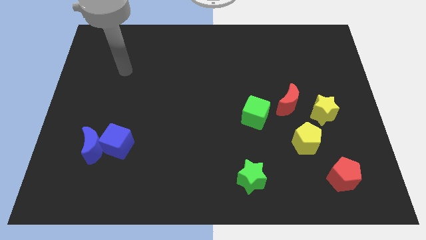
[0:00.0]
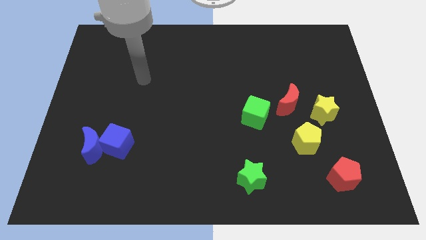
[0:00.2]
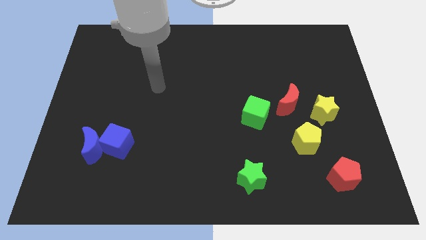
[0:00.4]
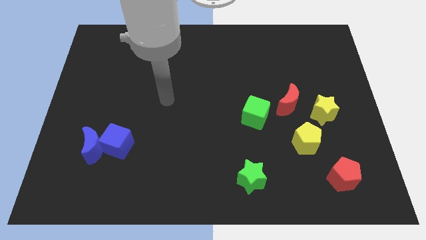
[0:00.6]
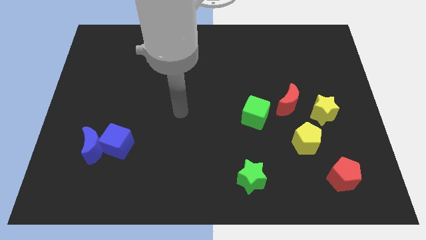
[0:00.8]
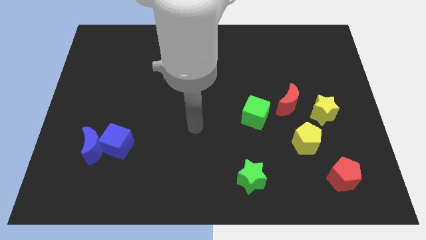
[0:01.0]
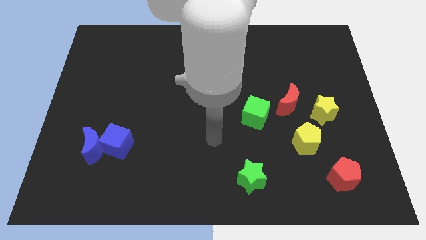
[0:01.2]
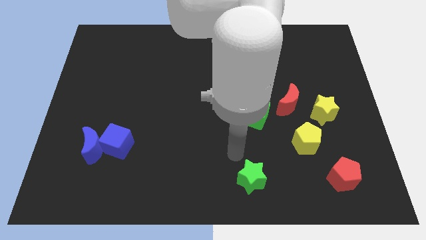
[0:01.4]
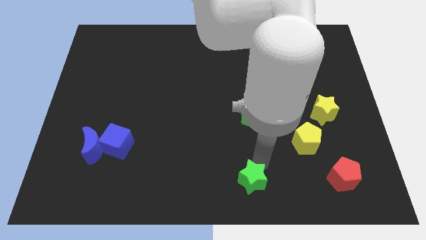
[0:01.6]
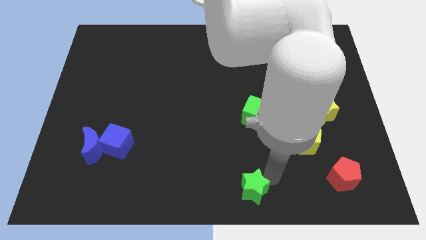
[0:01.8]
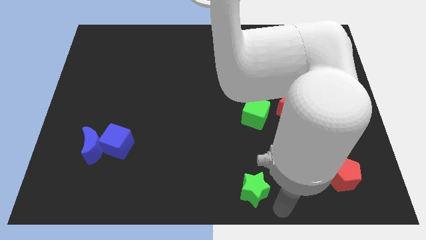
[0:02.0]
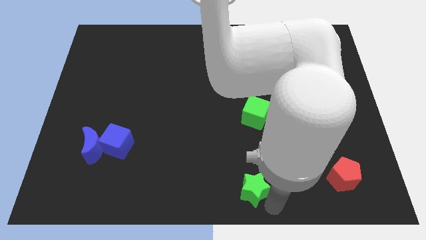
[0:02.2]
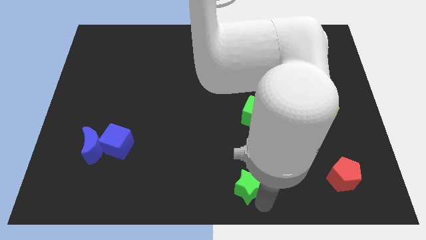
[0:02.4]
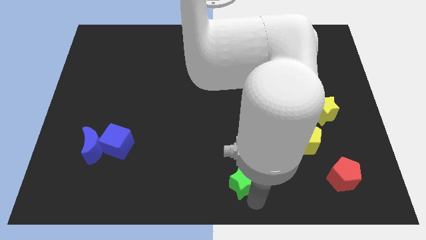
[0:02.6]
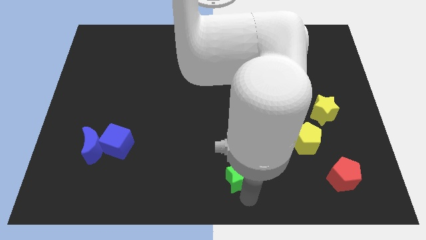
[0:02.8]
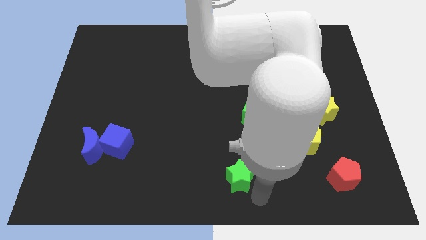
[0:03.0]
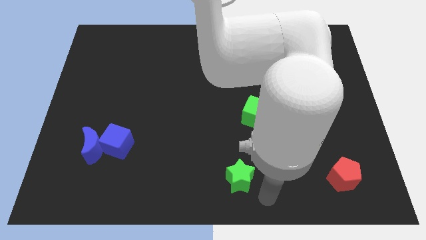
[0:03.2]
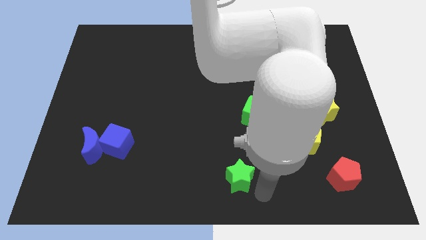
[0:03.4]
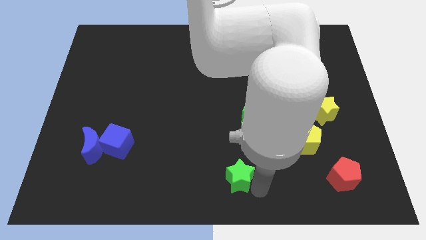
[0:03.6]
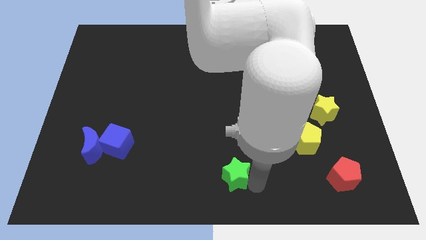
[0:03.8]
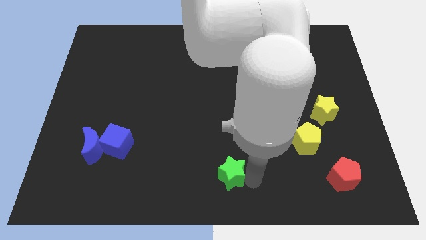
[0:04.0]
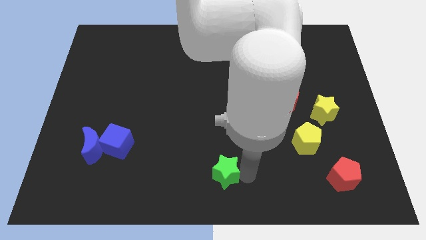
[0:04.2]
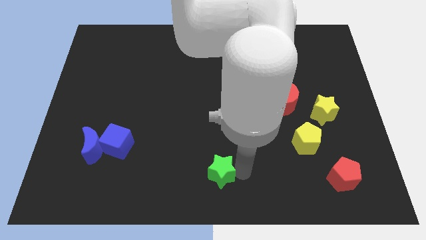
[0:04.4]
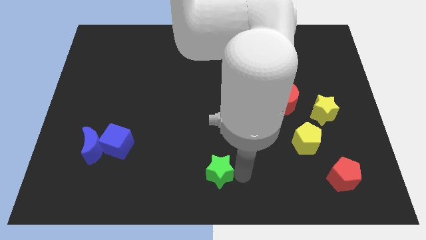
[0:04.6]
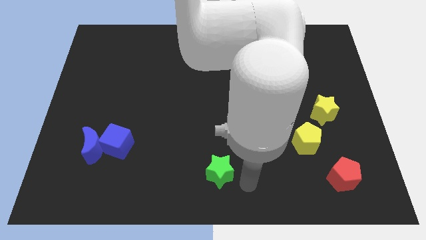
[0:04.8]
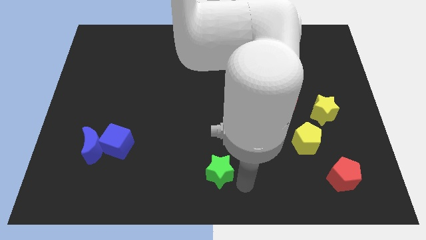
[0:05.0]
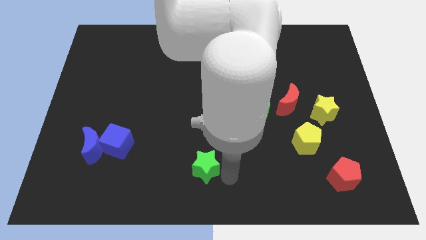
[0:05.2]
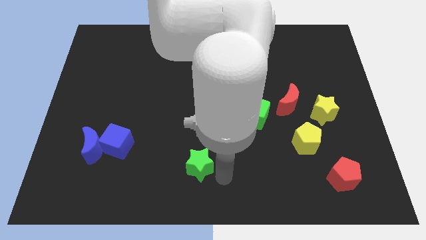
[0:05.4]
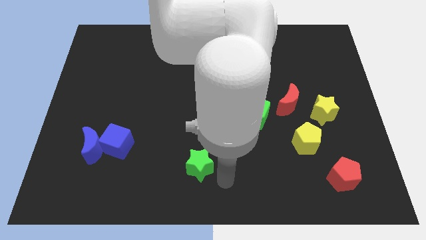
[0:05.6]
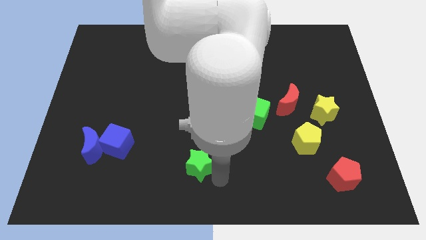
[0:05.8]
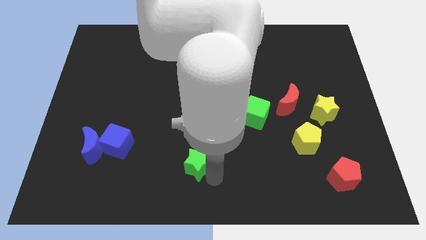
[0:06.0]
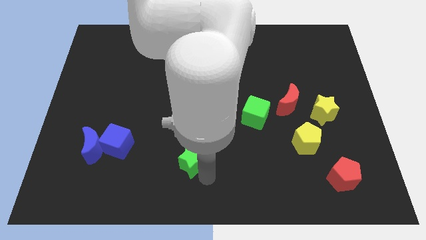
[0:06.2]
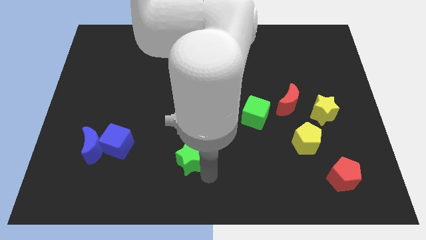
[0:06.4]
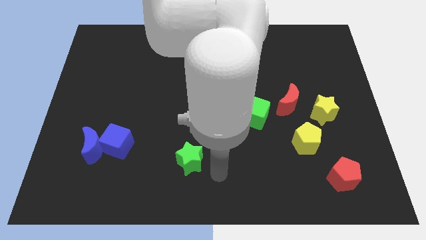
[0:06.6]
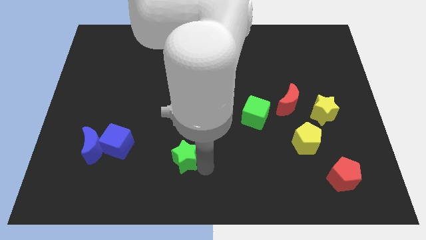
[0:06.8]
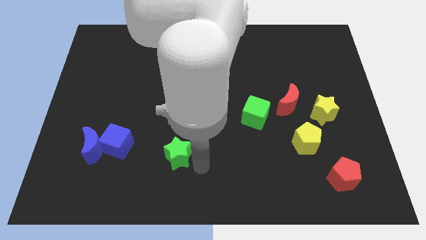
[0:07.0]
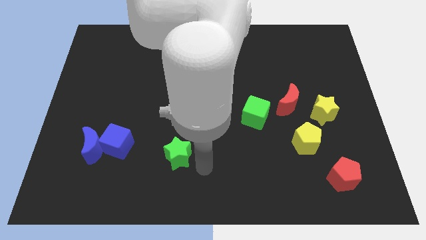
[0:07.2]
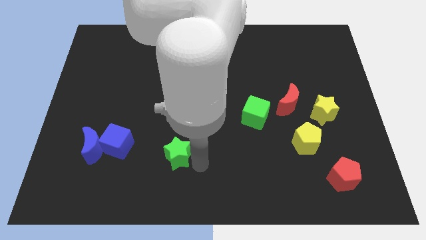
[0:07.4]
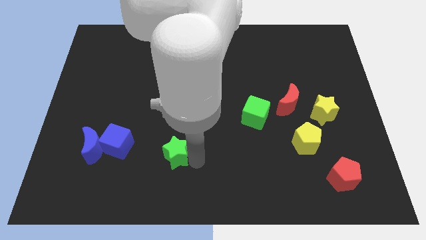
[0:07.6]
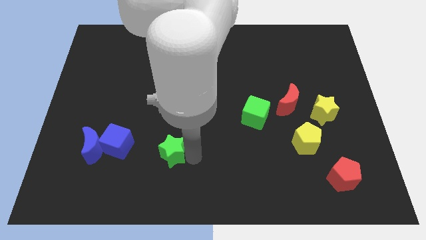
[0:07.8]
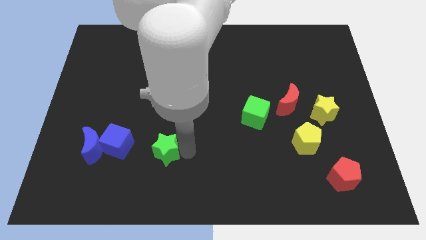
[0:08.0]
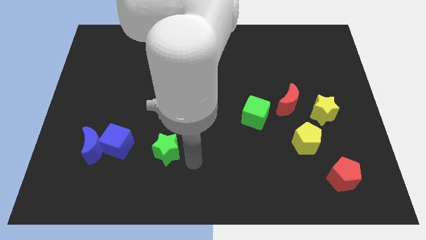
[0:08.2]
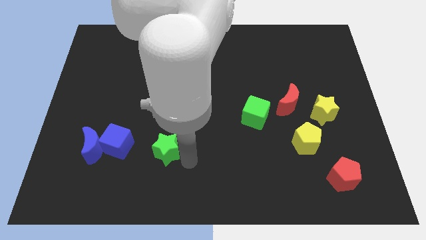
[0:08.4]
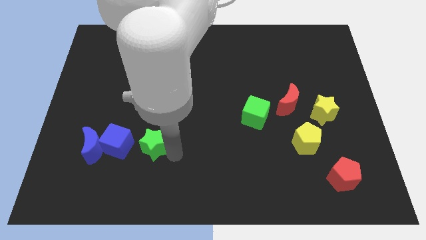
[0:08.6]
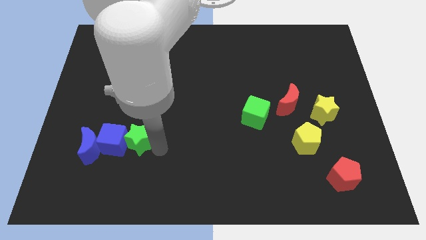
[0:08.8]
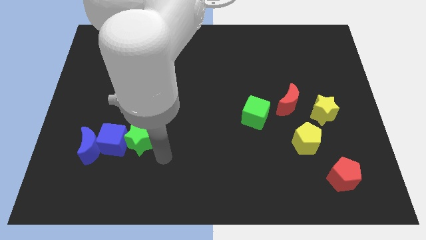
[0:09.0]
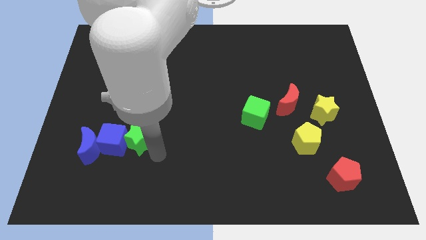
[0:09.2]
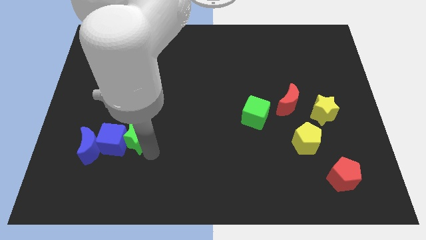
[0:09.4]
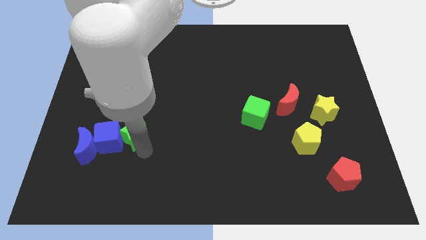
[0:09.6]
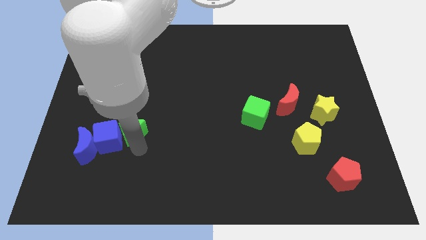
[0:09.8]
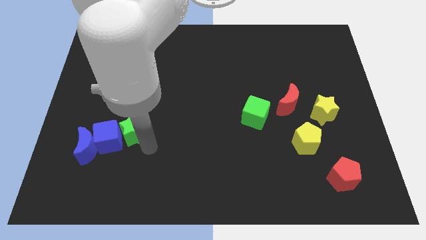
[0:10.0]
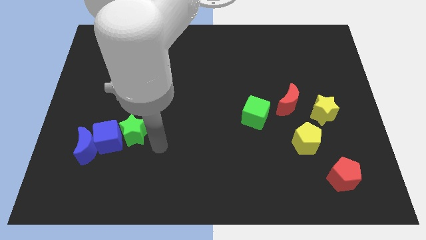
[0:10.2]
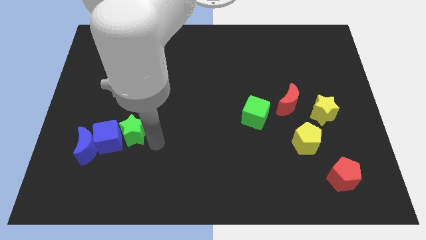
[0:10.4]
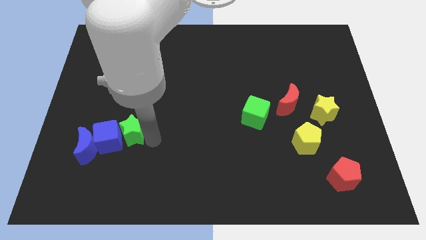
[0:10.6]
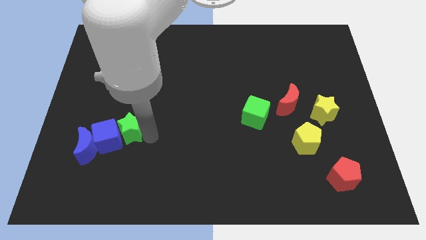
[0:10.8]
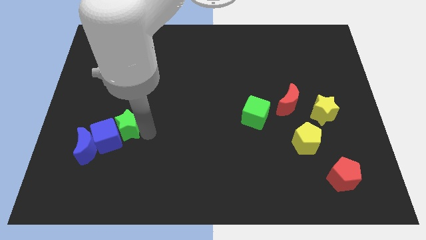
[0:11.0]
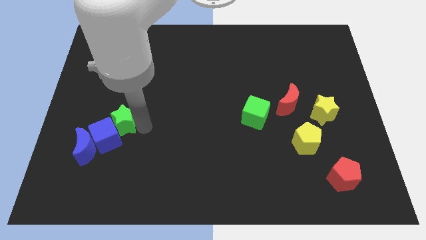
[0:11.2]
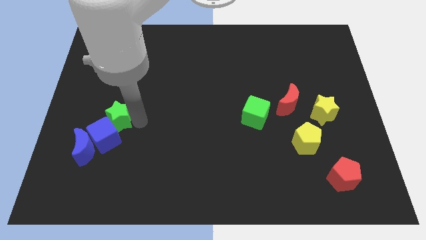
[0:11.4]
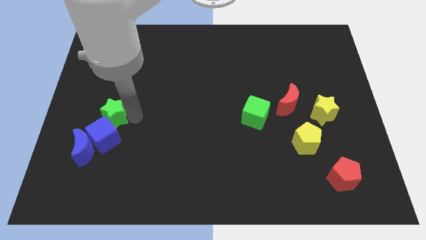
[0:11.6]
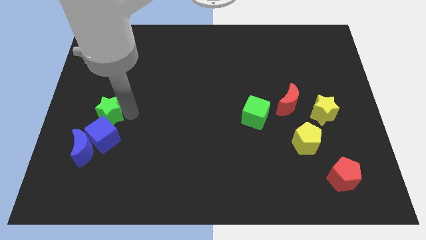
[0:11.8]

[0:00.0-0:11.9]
push the green star to the top left side of the blue cube

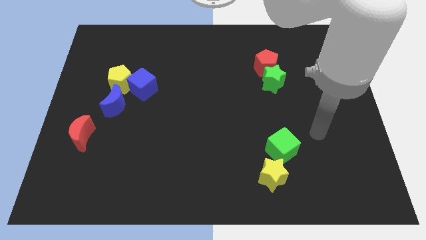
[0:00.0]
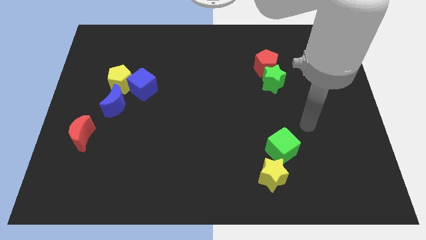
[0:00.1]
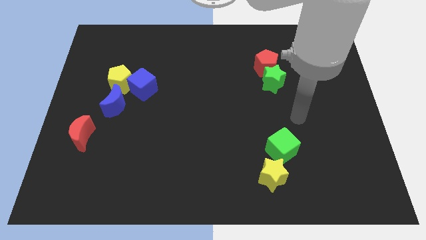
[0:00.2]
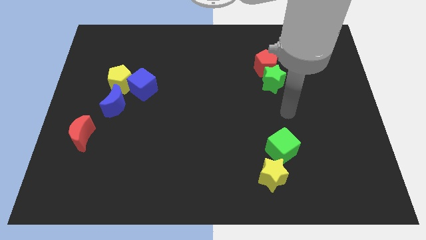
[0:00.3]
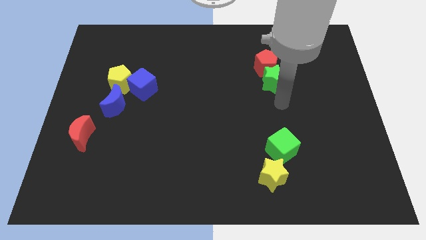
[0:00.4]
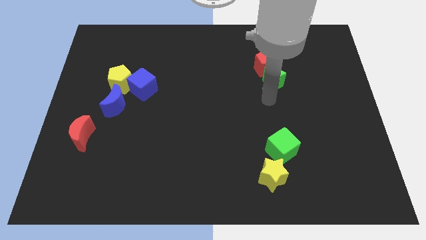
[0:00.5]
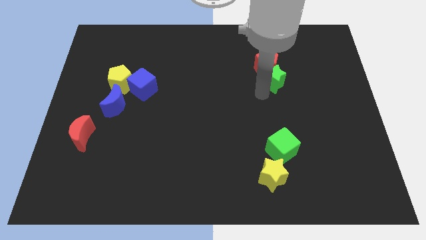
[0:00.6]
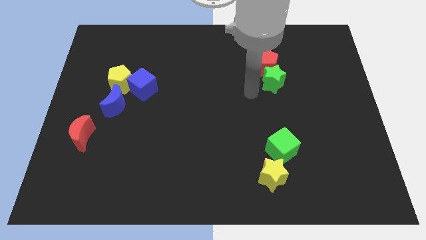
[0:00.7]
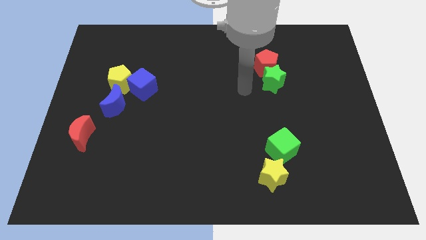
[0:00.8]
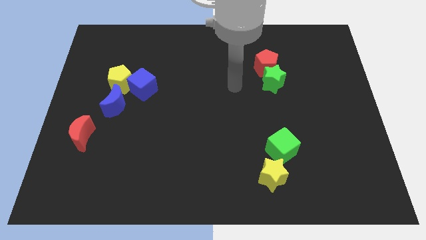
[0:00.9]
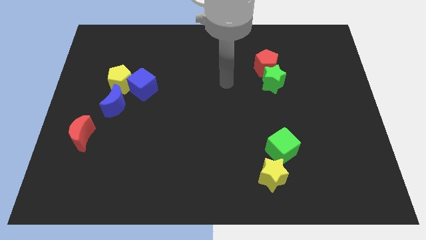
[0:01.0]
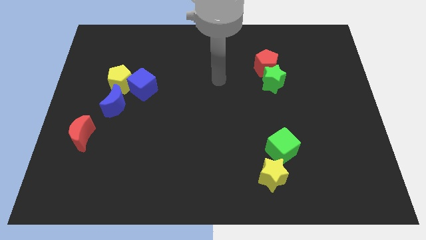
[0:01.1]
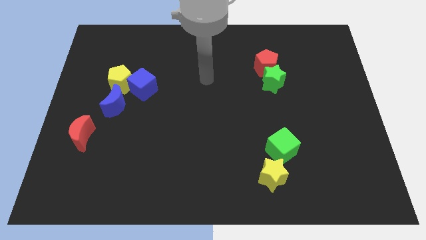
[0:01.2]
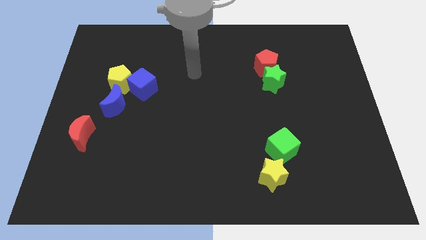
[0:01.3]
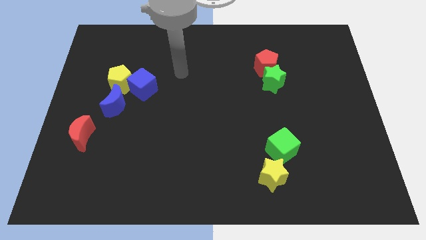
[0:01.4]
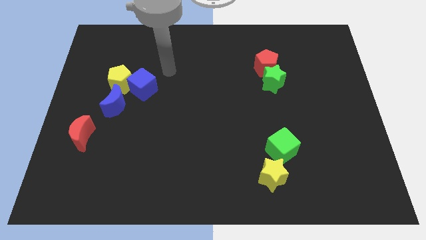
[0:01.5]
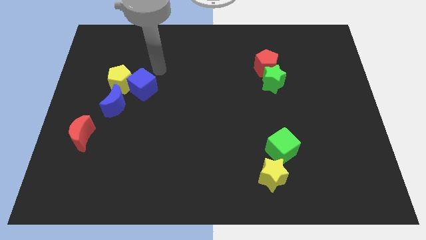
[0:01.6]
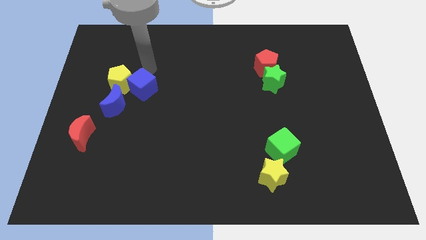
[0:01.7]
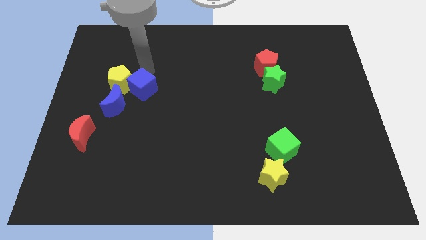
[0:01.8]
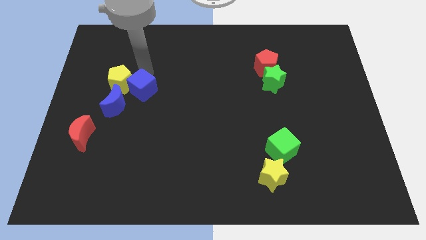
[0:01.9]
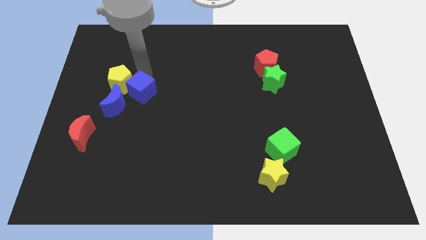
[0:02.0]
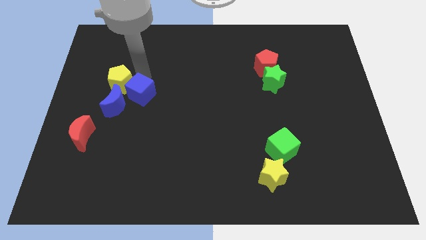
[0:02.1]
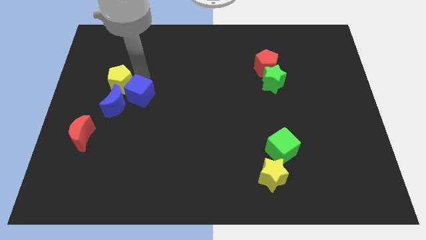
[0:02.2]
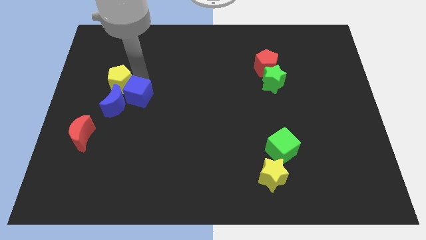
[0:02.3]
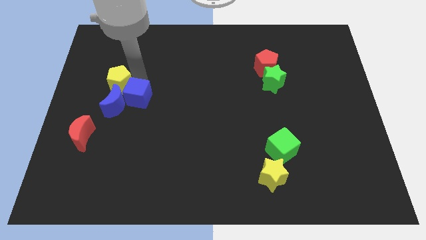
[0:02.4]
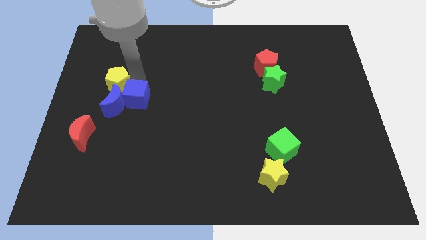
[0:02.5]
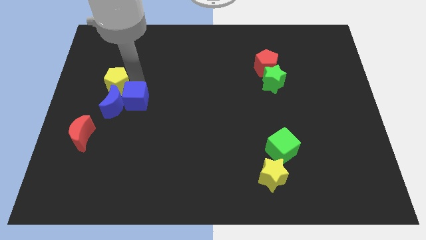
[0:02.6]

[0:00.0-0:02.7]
move the blue cube diagonally down and to the right of the blue moon
